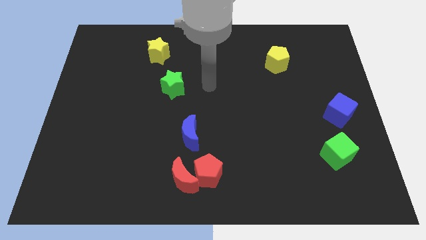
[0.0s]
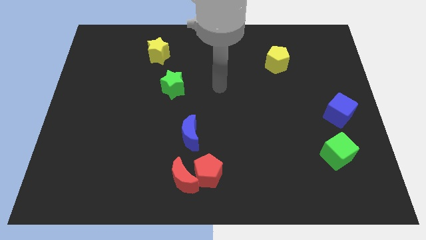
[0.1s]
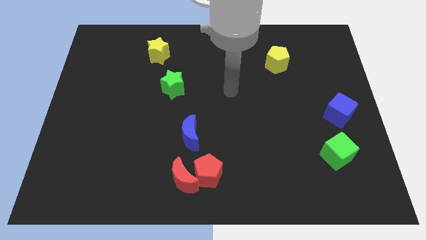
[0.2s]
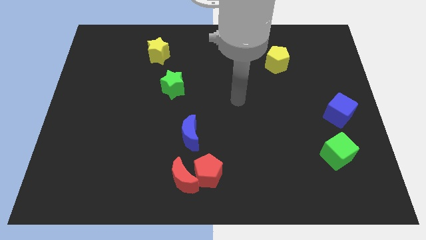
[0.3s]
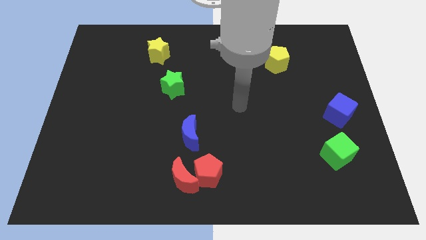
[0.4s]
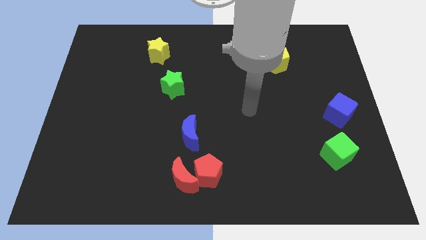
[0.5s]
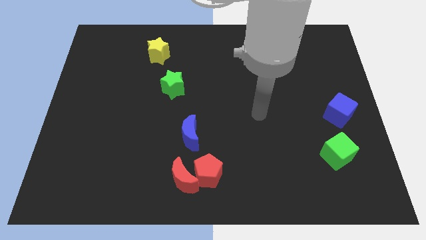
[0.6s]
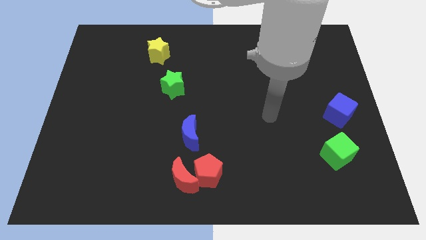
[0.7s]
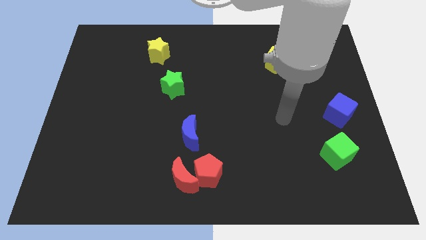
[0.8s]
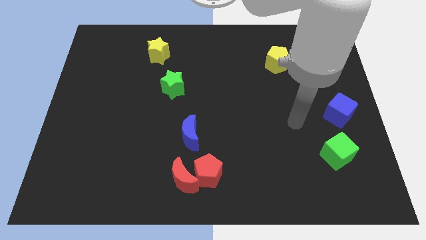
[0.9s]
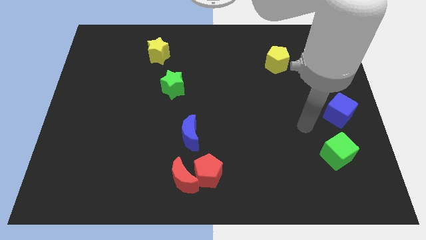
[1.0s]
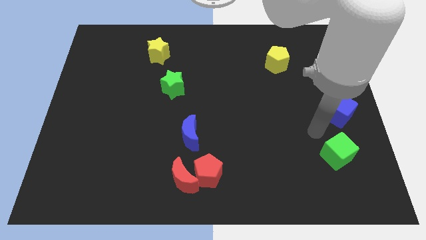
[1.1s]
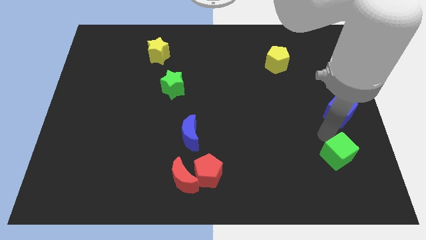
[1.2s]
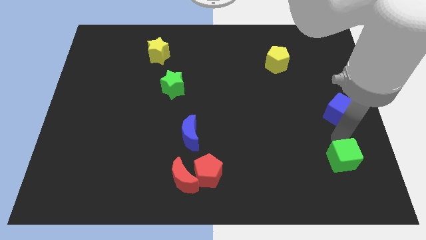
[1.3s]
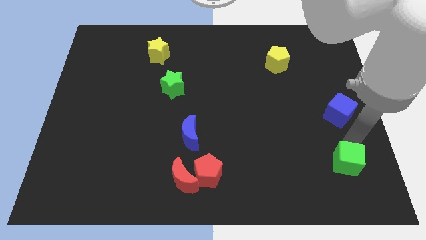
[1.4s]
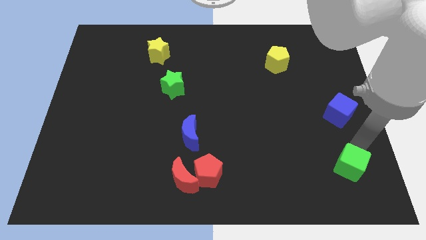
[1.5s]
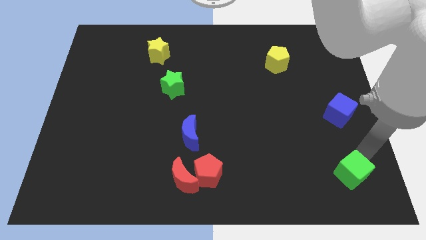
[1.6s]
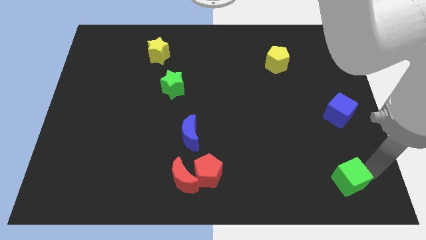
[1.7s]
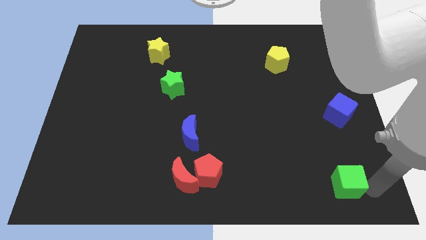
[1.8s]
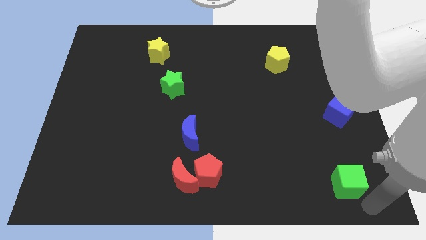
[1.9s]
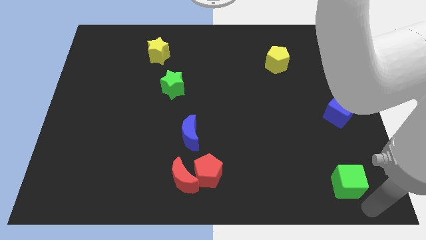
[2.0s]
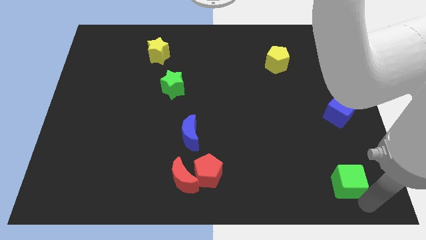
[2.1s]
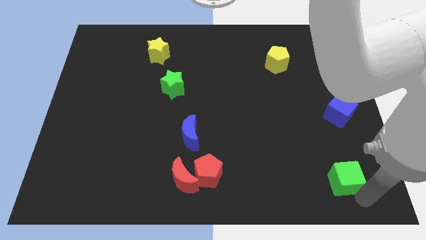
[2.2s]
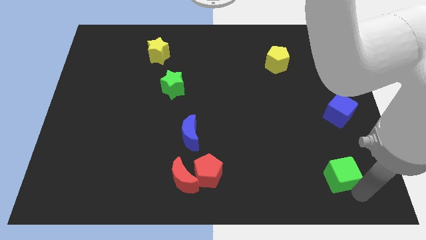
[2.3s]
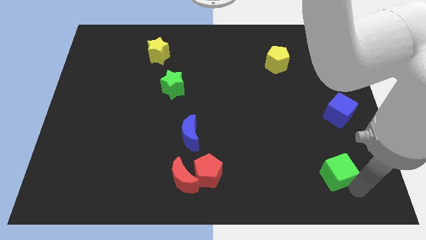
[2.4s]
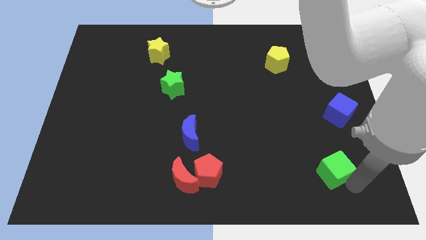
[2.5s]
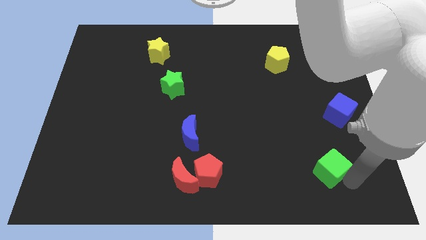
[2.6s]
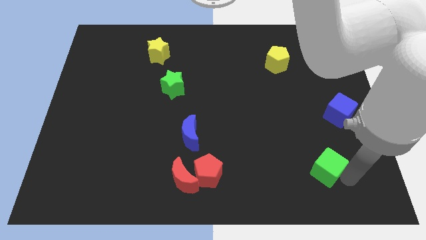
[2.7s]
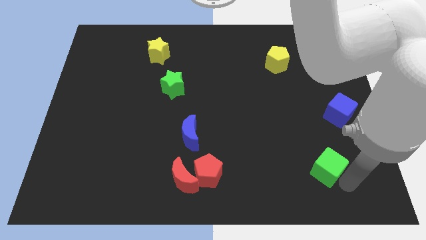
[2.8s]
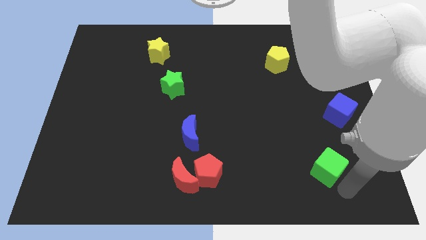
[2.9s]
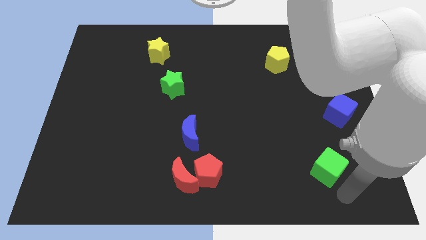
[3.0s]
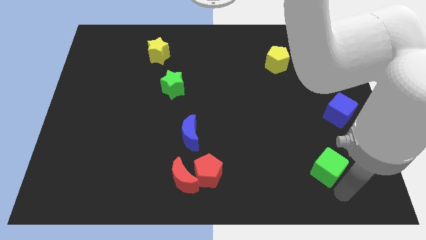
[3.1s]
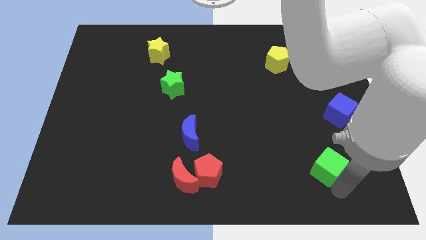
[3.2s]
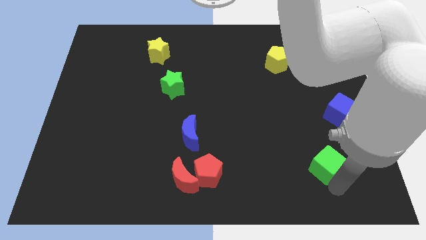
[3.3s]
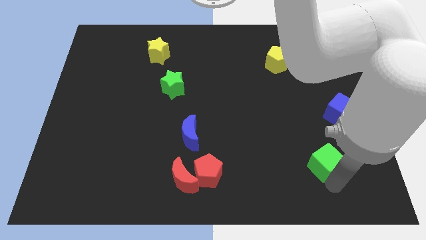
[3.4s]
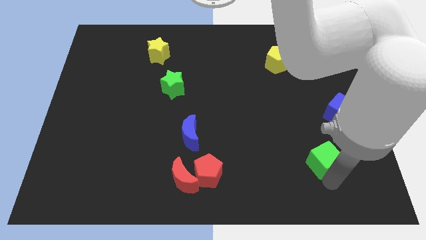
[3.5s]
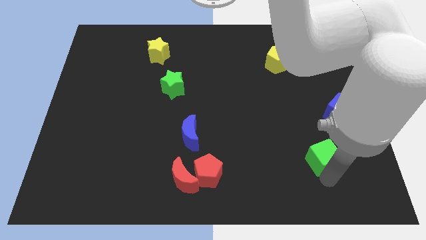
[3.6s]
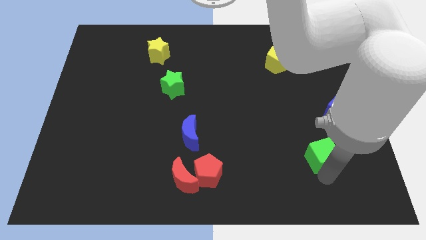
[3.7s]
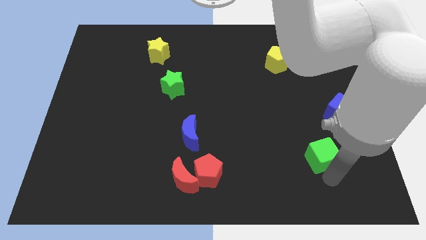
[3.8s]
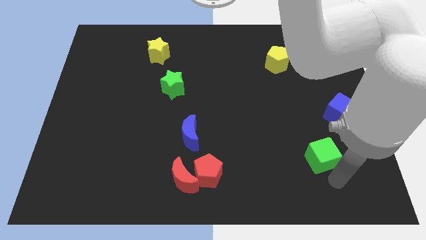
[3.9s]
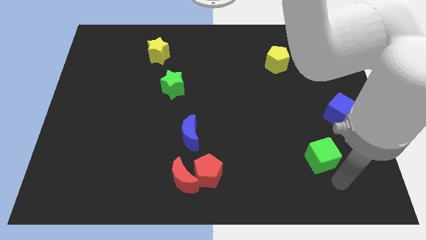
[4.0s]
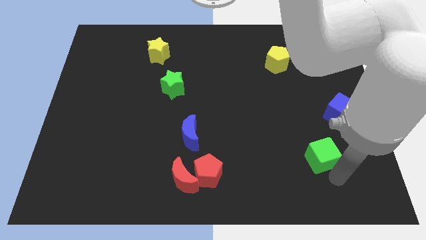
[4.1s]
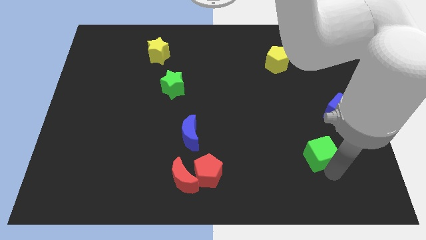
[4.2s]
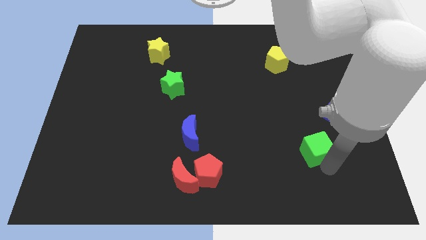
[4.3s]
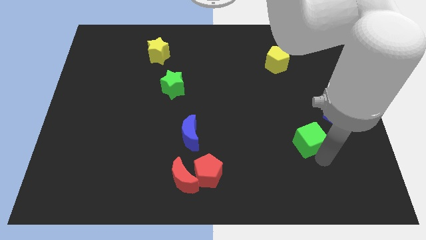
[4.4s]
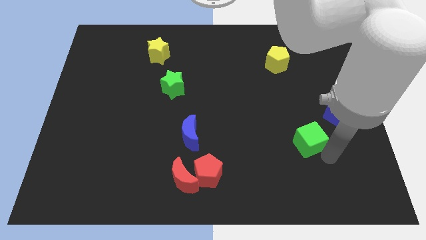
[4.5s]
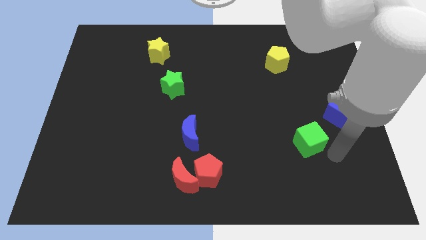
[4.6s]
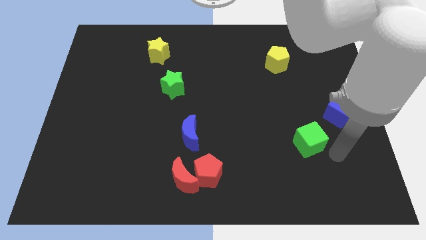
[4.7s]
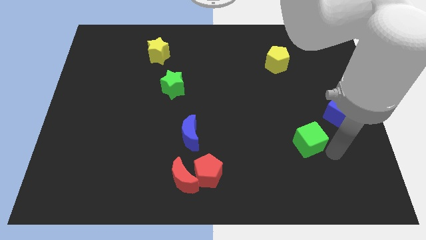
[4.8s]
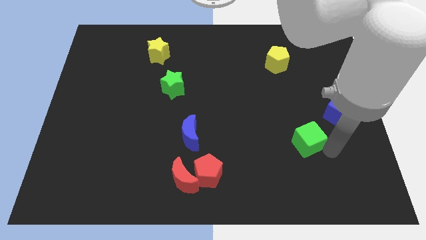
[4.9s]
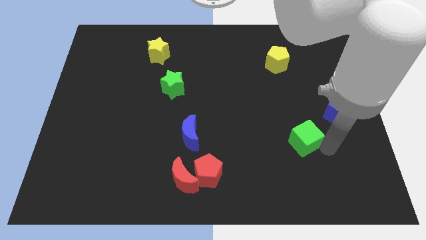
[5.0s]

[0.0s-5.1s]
slide the green cube slightly up and then left

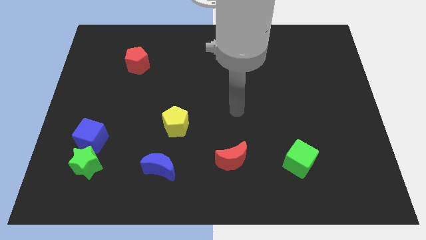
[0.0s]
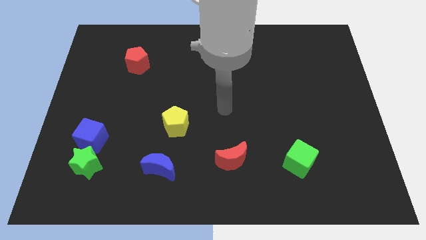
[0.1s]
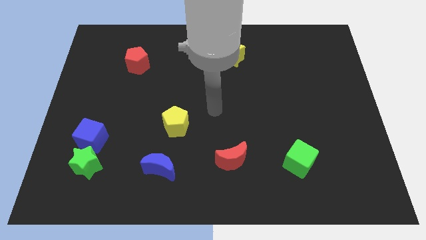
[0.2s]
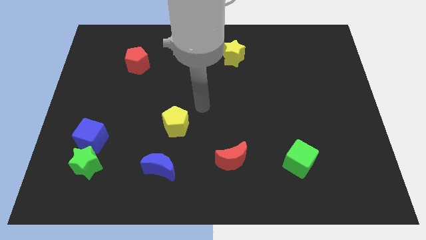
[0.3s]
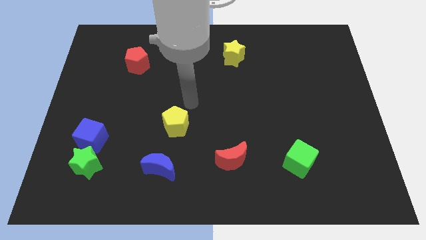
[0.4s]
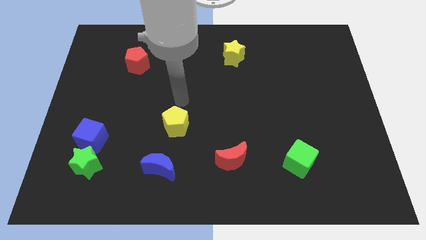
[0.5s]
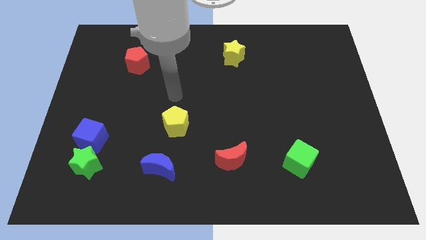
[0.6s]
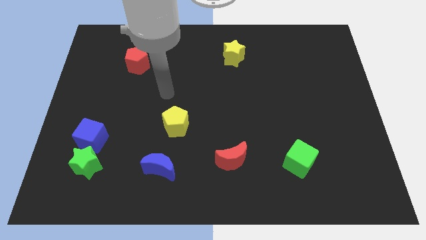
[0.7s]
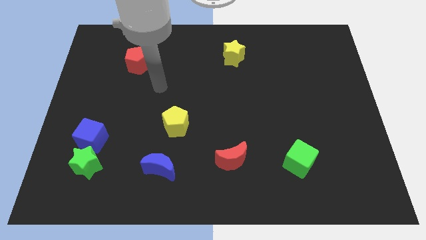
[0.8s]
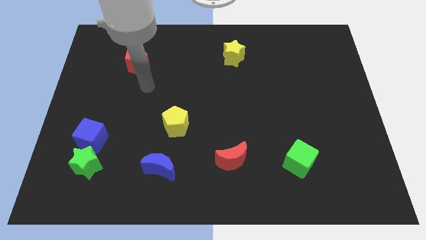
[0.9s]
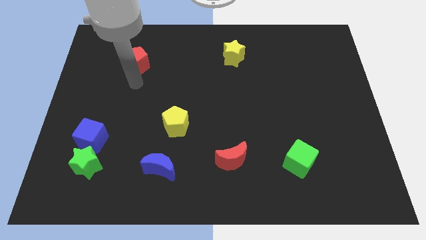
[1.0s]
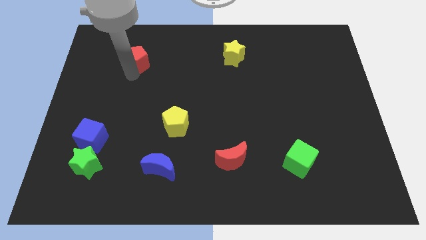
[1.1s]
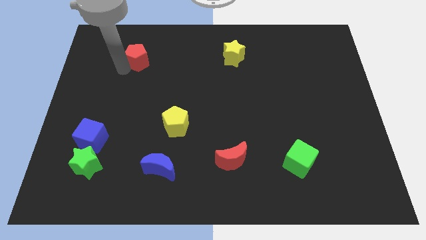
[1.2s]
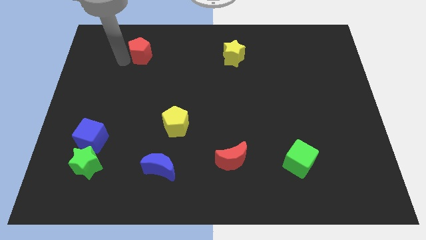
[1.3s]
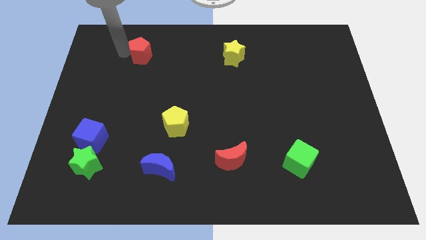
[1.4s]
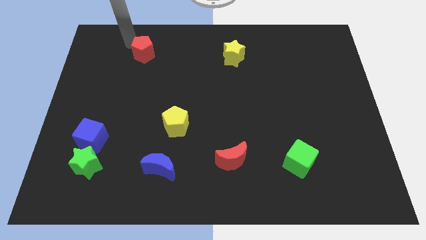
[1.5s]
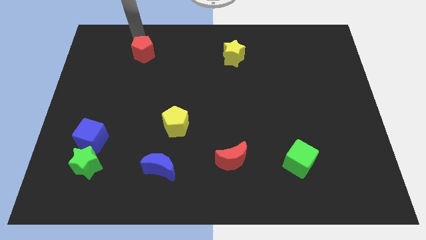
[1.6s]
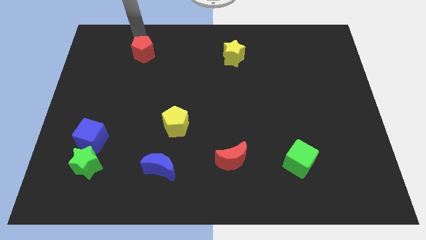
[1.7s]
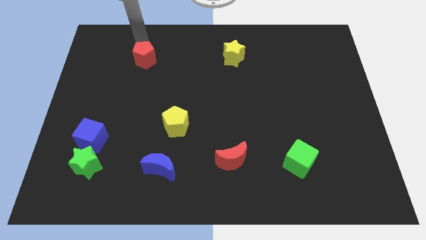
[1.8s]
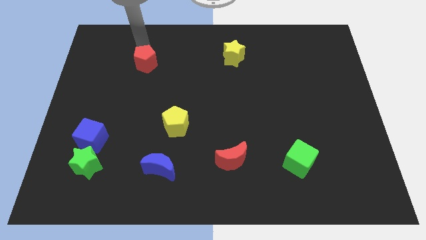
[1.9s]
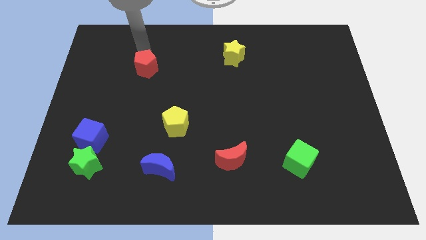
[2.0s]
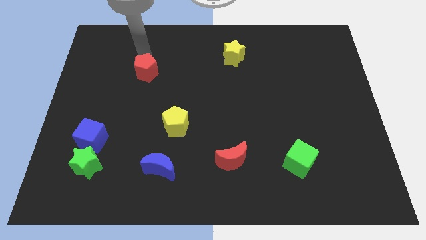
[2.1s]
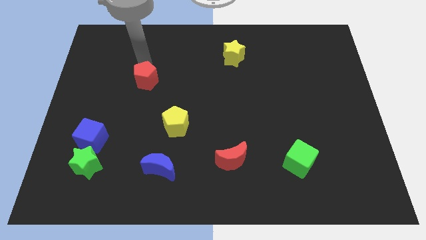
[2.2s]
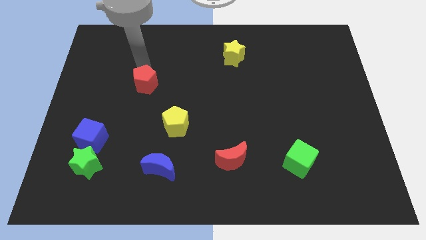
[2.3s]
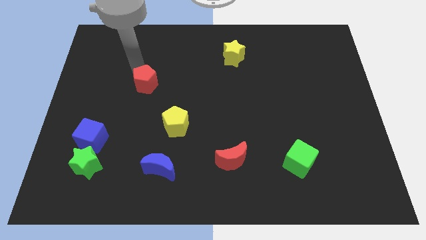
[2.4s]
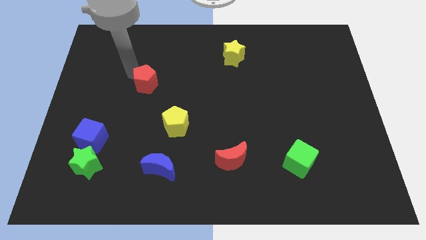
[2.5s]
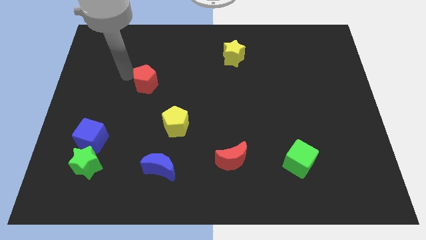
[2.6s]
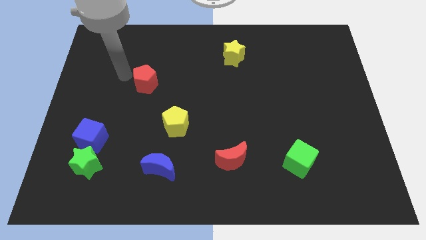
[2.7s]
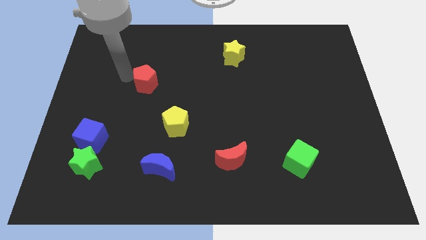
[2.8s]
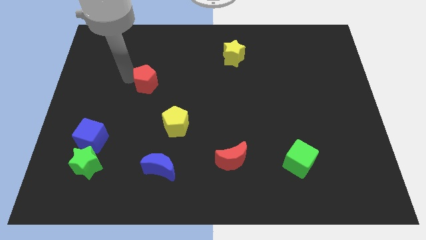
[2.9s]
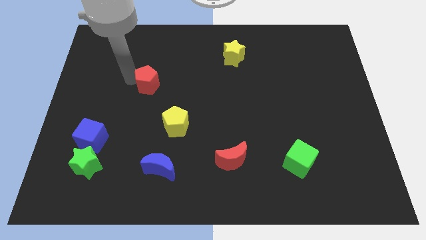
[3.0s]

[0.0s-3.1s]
push the red pentagon downwards and right diagonally a little bit
